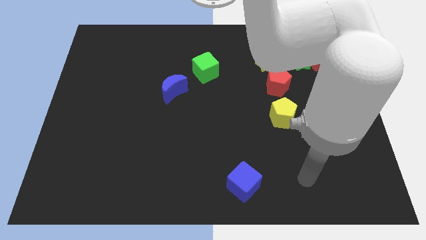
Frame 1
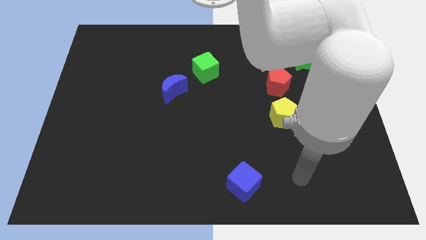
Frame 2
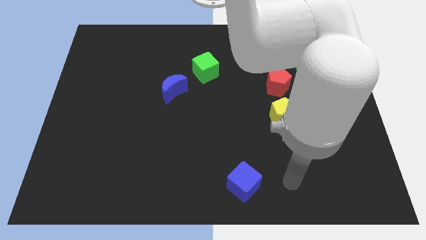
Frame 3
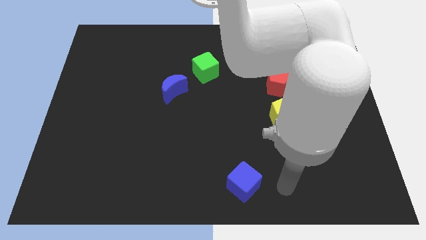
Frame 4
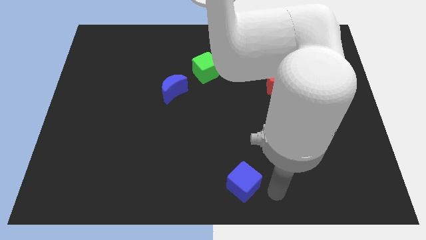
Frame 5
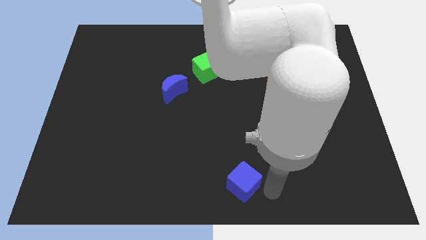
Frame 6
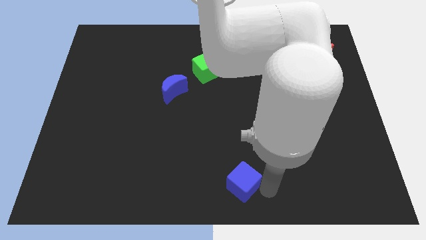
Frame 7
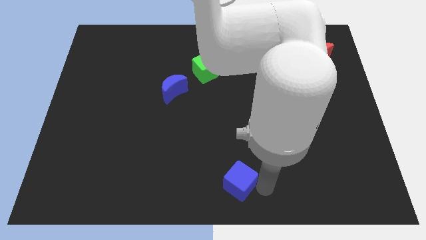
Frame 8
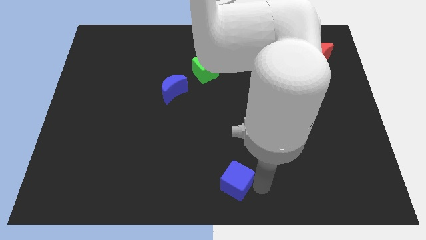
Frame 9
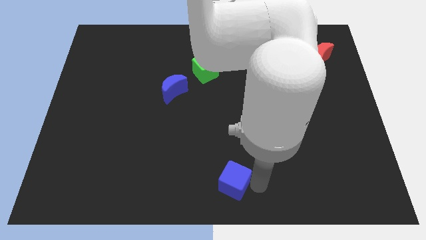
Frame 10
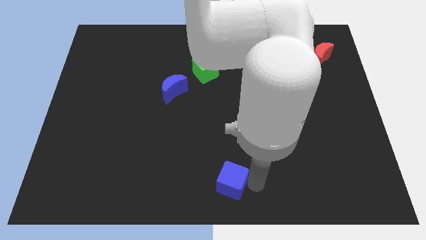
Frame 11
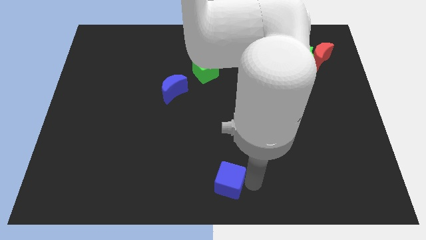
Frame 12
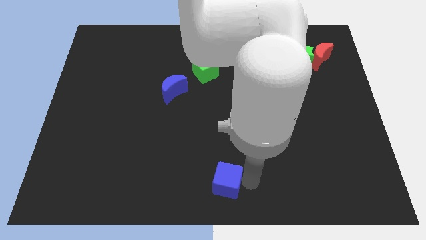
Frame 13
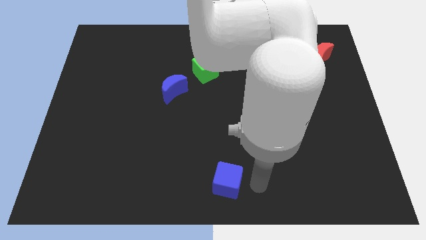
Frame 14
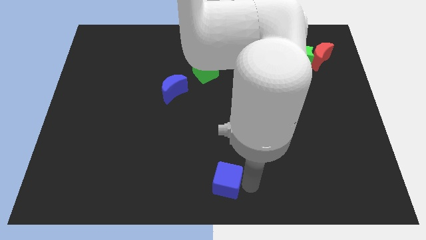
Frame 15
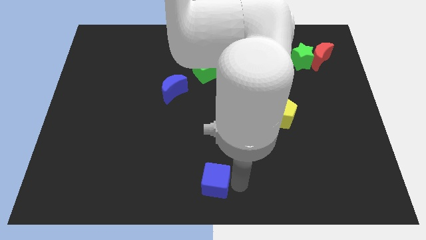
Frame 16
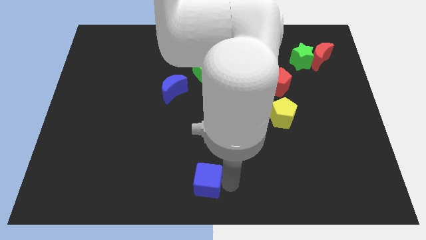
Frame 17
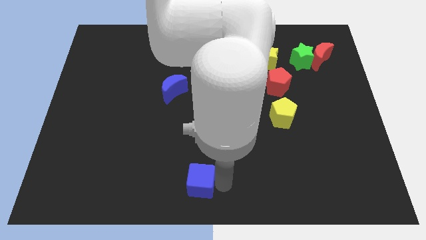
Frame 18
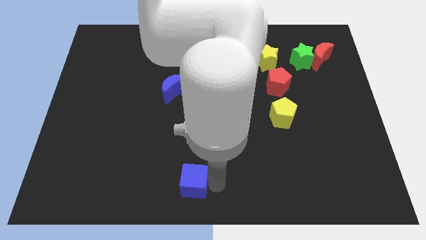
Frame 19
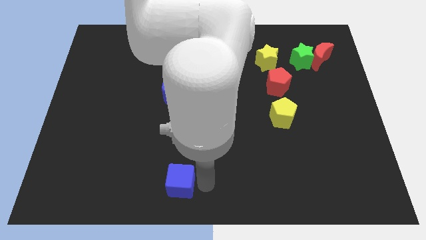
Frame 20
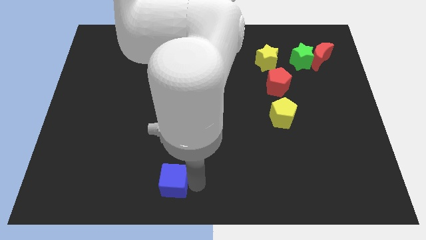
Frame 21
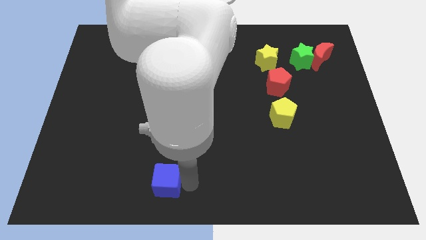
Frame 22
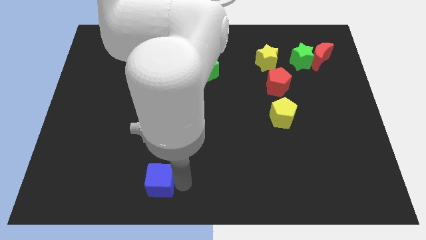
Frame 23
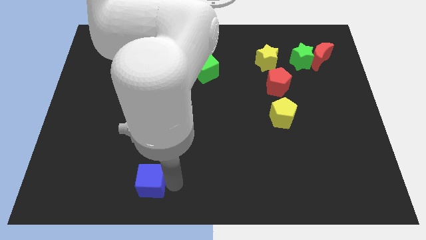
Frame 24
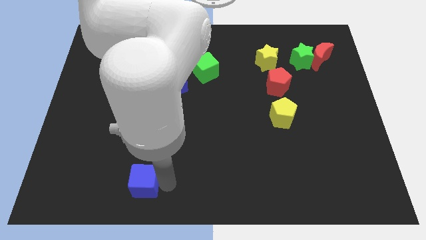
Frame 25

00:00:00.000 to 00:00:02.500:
slide the blue cube to the left

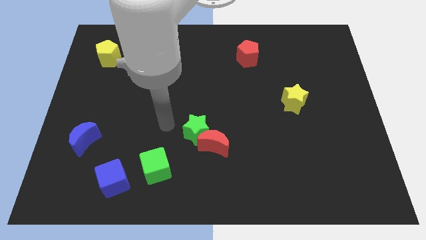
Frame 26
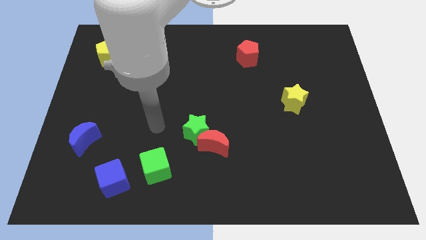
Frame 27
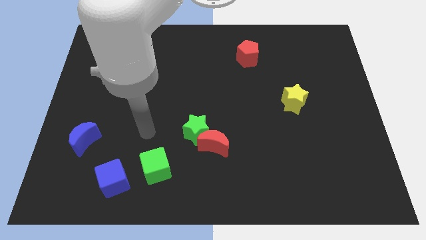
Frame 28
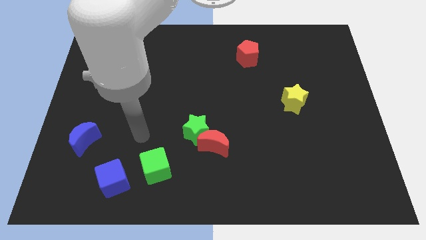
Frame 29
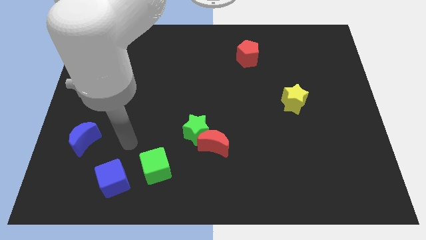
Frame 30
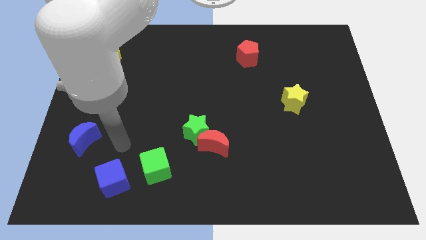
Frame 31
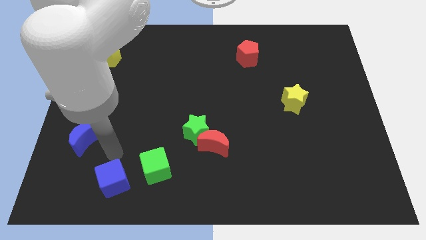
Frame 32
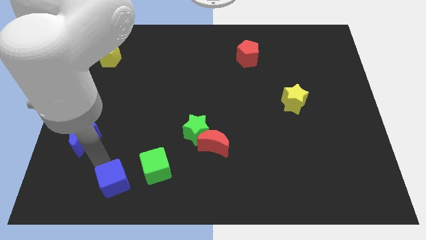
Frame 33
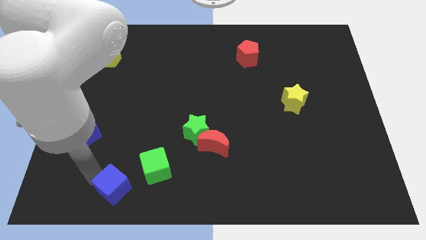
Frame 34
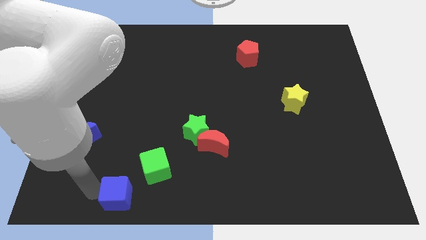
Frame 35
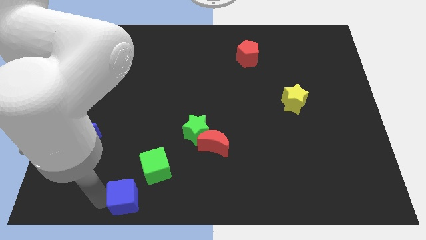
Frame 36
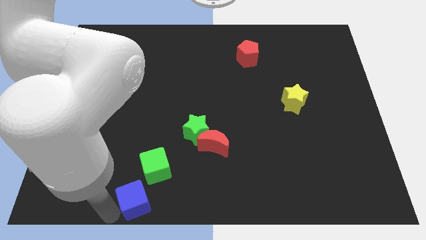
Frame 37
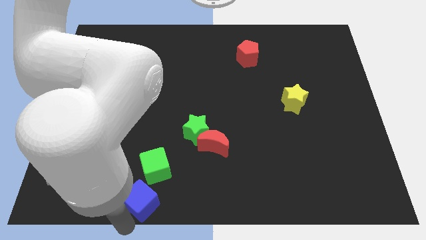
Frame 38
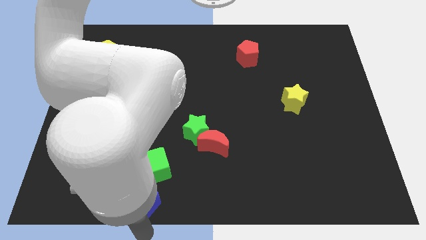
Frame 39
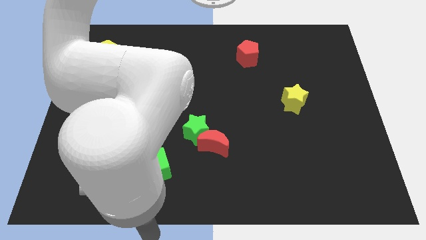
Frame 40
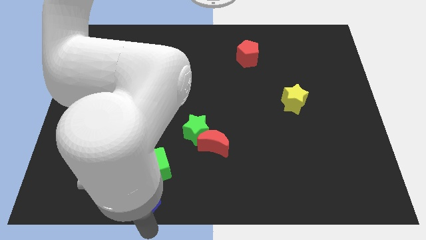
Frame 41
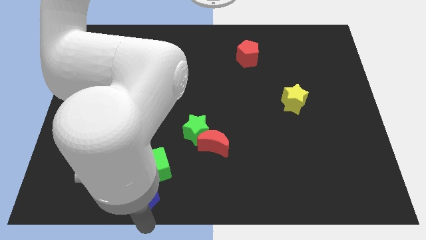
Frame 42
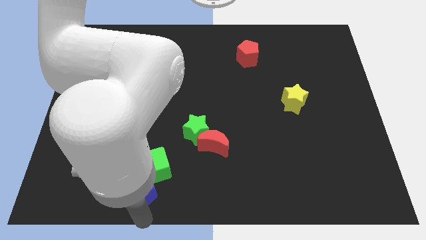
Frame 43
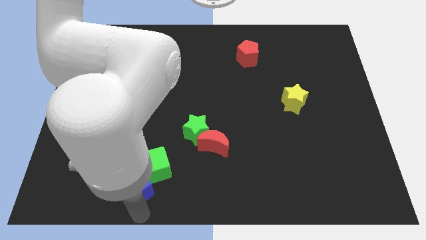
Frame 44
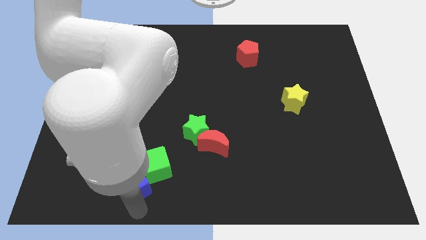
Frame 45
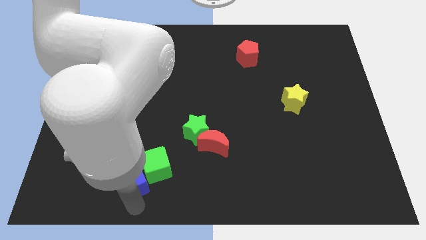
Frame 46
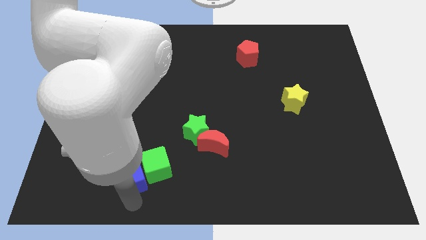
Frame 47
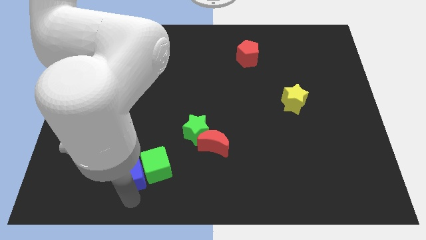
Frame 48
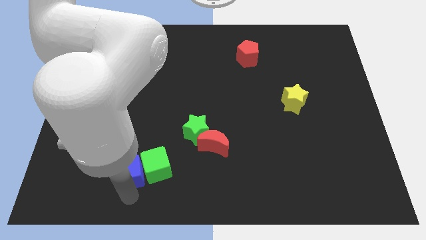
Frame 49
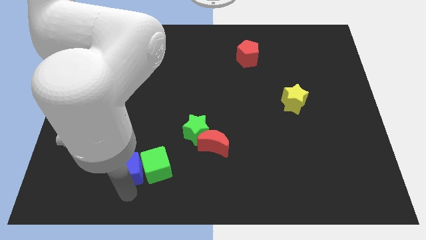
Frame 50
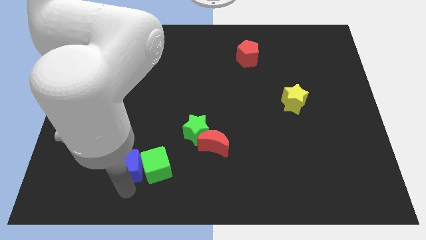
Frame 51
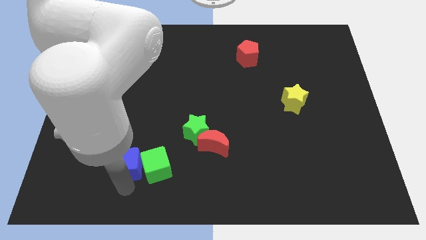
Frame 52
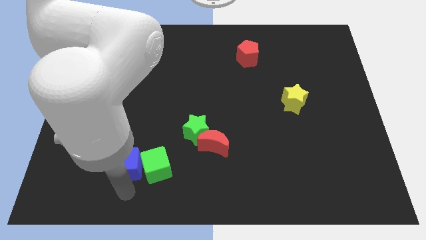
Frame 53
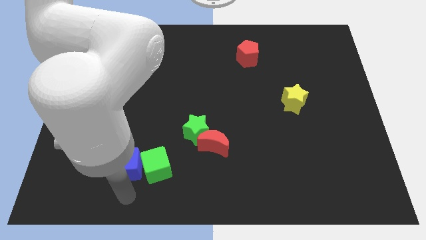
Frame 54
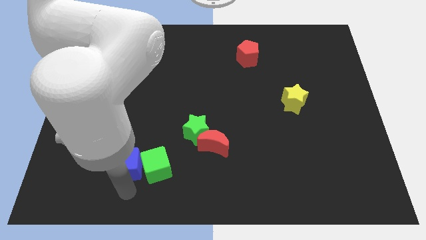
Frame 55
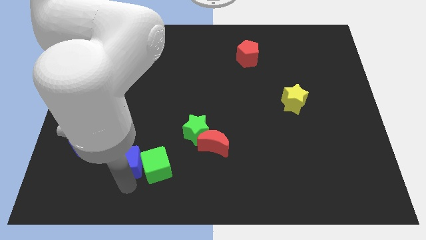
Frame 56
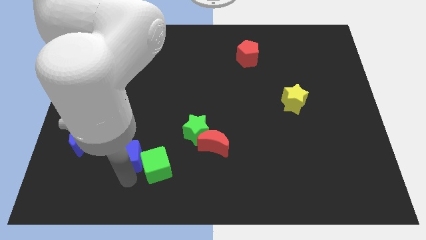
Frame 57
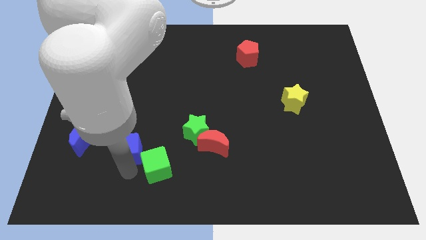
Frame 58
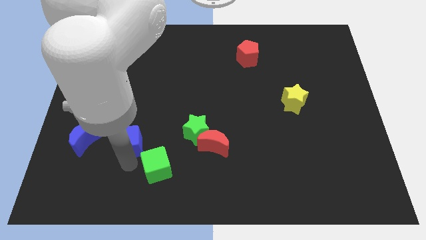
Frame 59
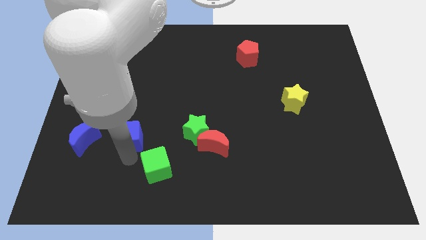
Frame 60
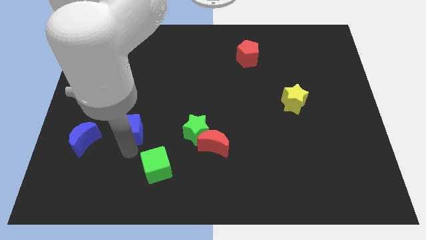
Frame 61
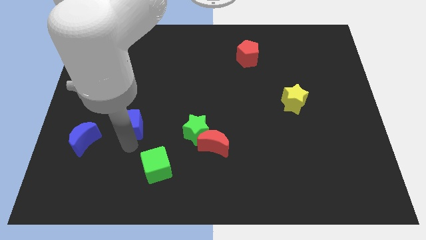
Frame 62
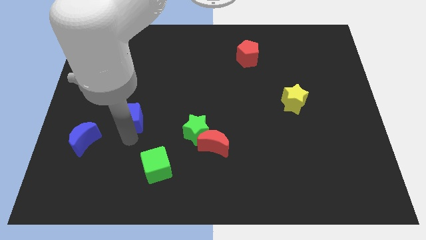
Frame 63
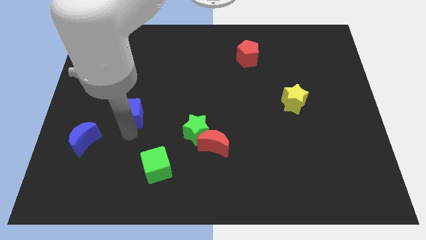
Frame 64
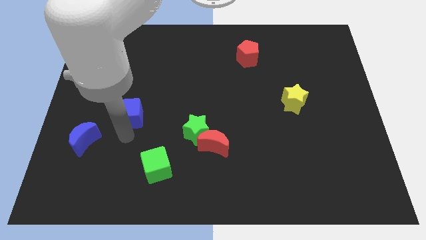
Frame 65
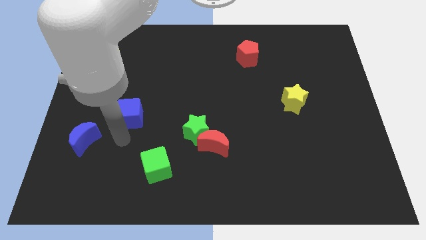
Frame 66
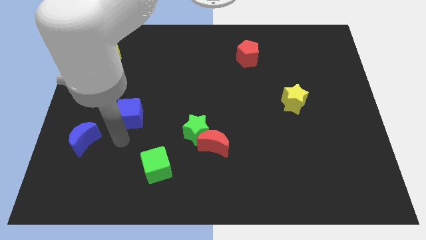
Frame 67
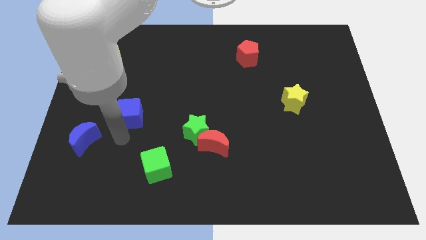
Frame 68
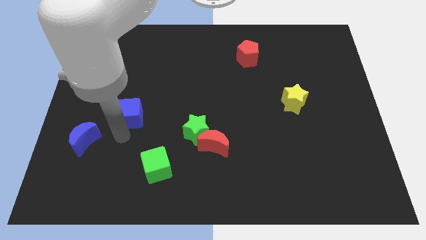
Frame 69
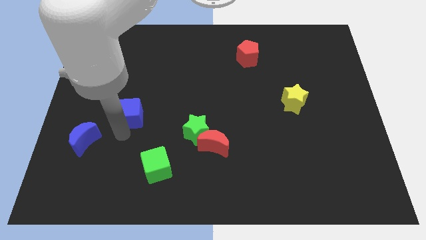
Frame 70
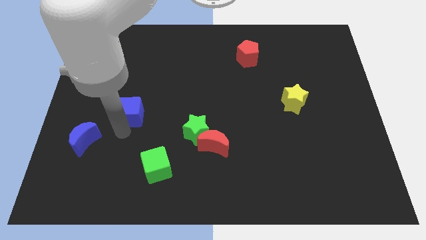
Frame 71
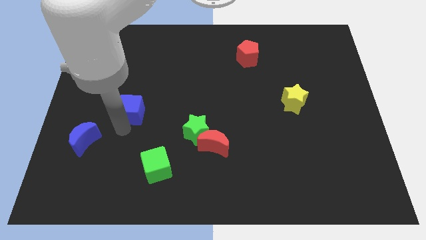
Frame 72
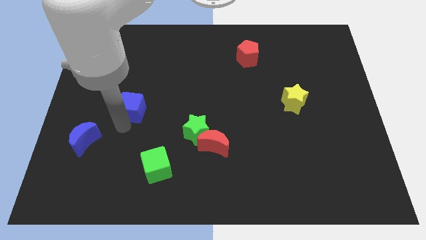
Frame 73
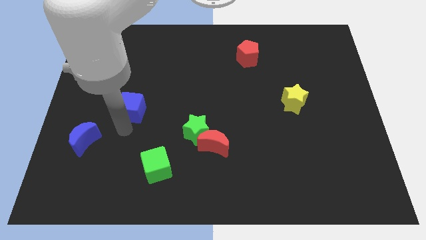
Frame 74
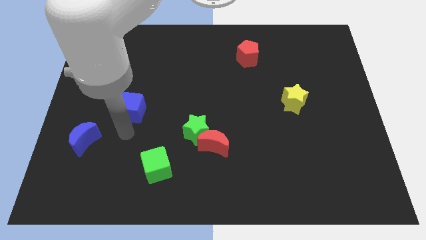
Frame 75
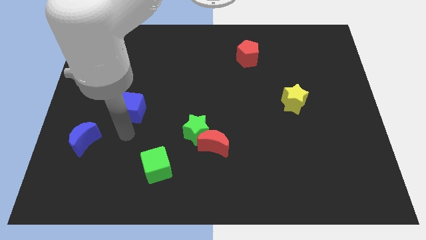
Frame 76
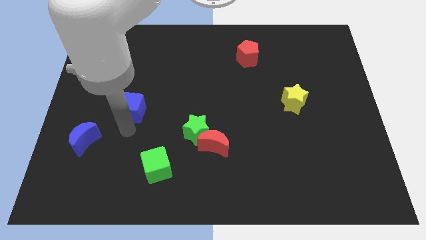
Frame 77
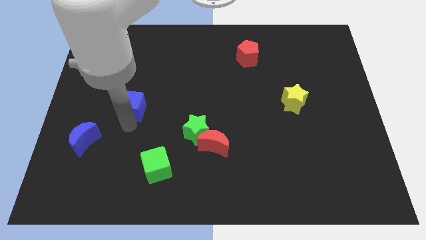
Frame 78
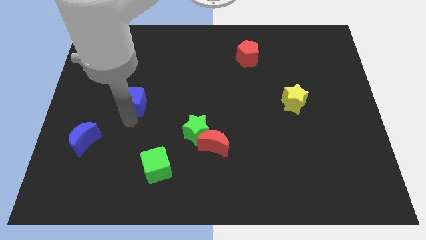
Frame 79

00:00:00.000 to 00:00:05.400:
push the blue cube up
